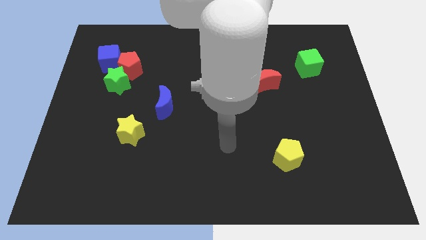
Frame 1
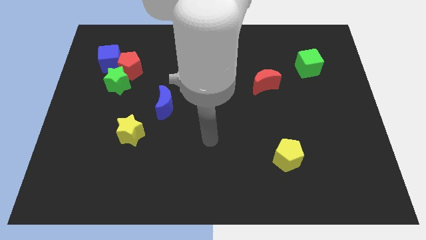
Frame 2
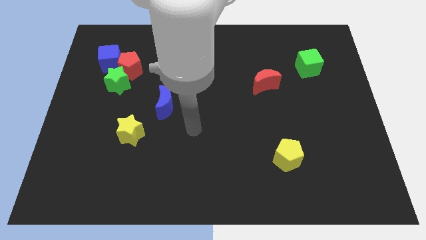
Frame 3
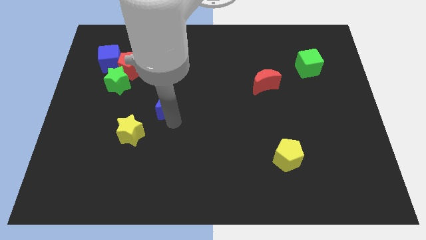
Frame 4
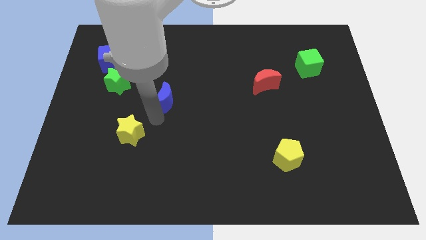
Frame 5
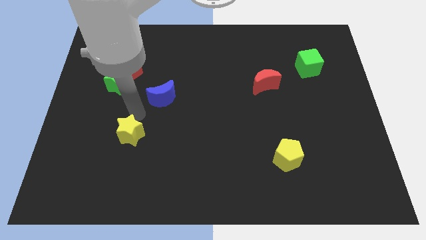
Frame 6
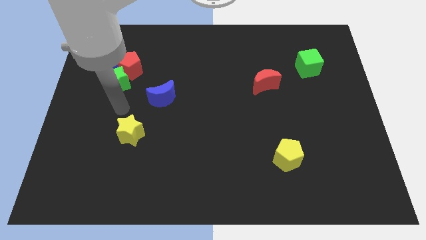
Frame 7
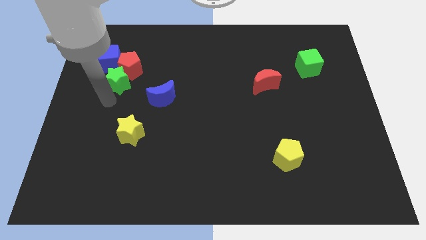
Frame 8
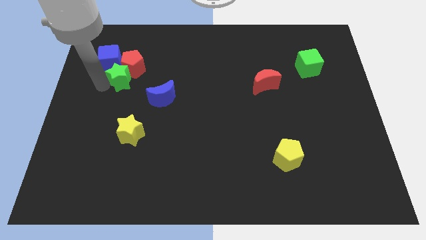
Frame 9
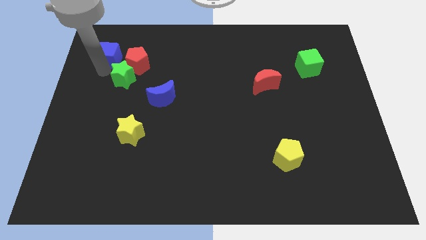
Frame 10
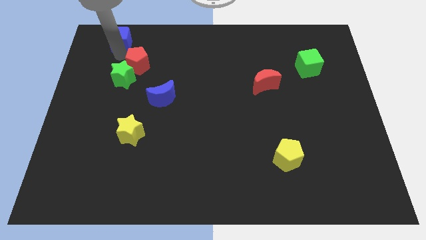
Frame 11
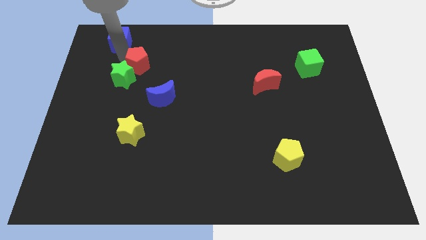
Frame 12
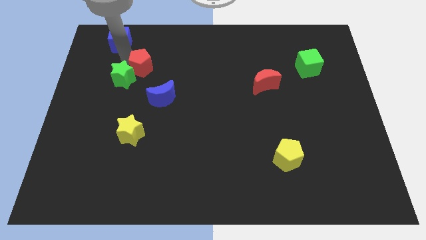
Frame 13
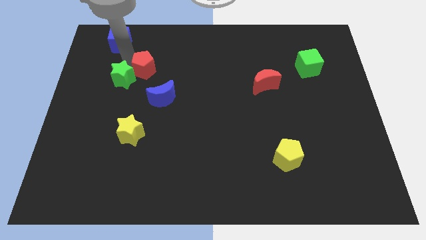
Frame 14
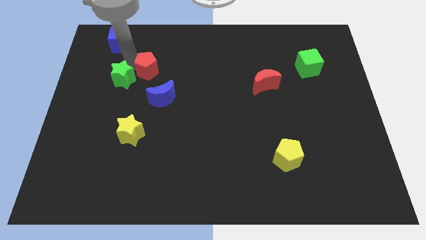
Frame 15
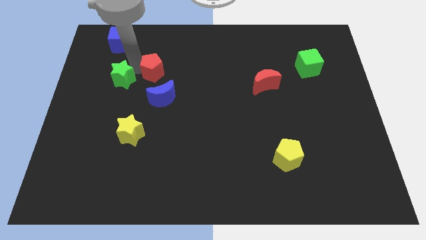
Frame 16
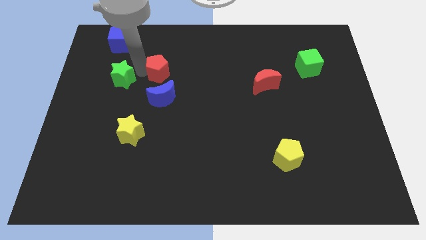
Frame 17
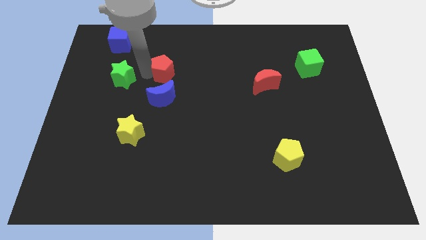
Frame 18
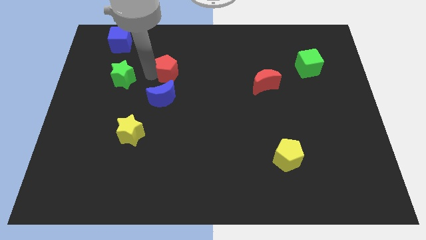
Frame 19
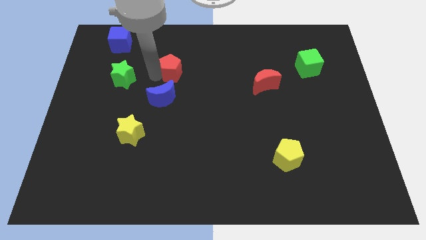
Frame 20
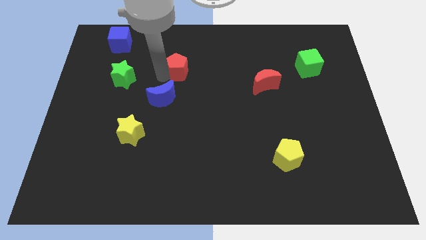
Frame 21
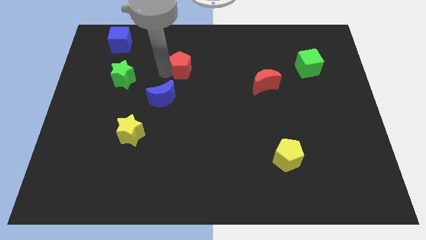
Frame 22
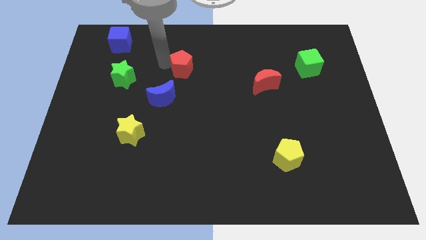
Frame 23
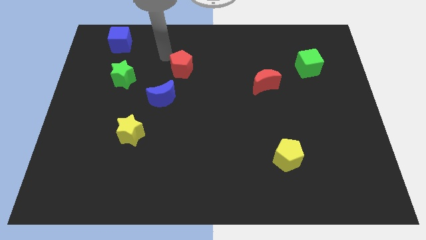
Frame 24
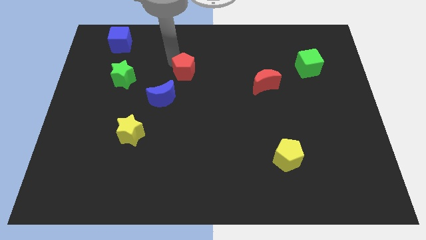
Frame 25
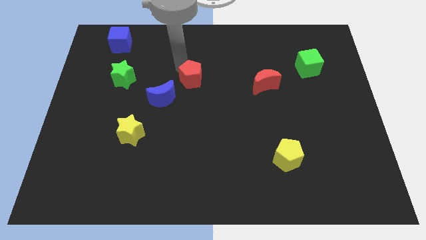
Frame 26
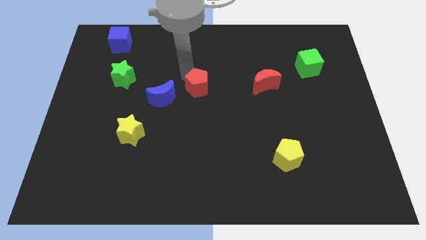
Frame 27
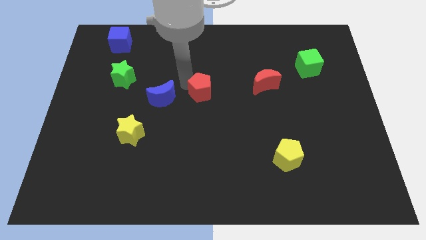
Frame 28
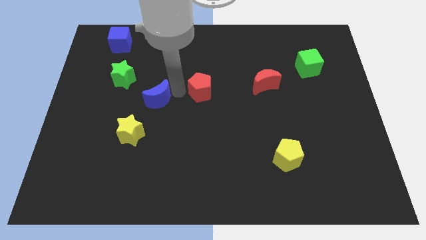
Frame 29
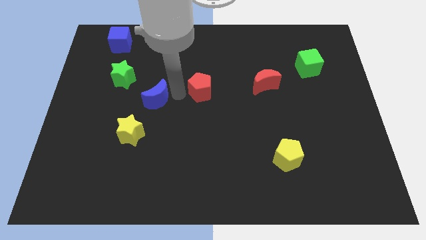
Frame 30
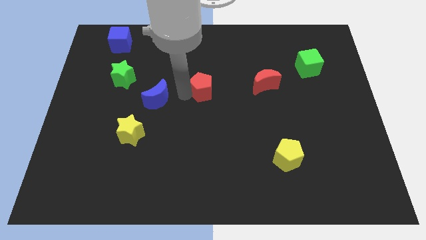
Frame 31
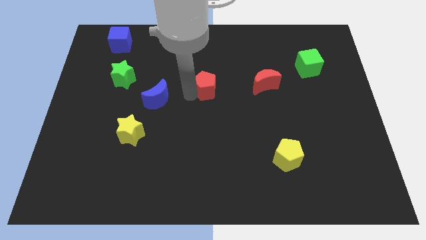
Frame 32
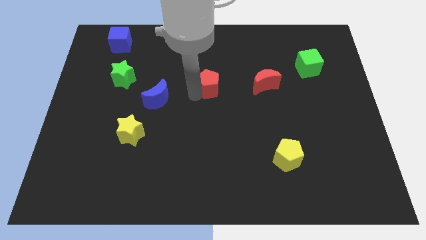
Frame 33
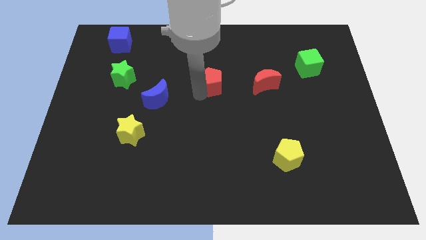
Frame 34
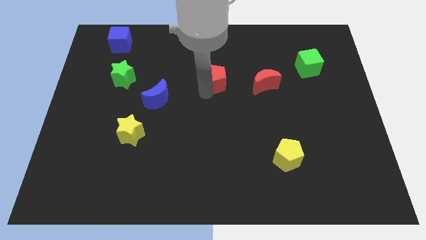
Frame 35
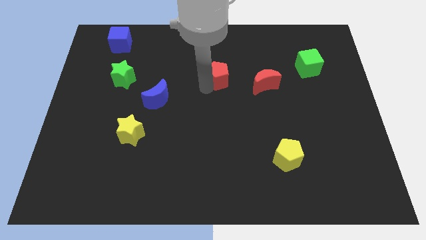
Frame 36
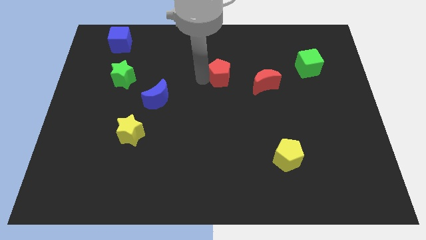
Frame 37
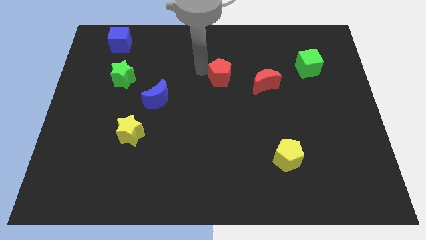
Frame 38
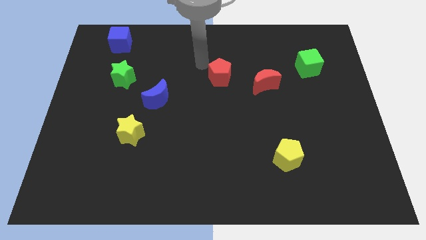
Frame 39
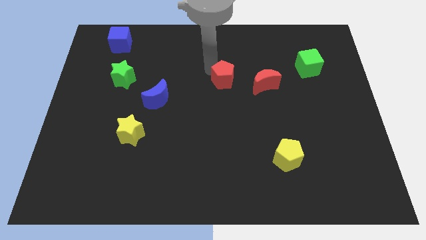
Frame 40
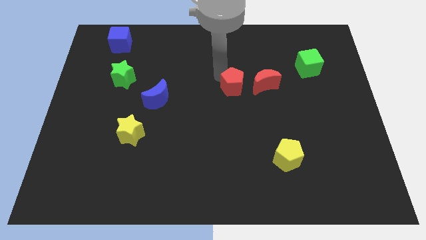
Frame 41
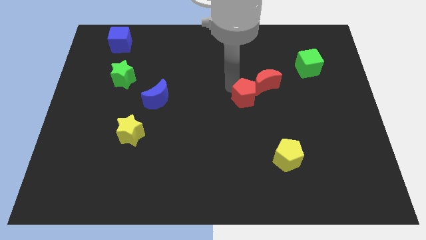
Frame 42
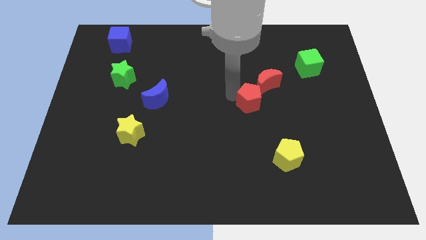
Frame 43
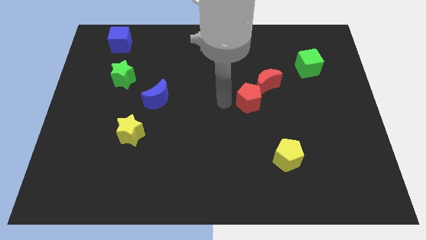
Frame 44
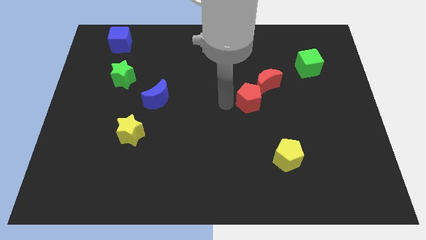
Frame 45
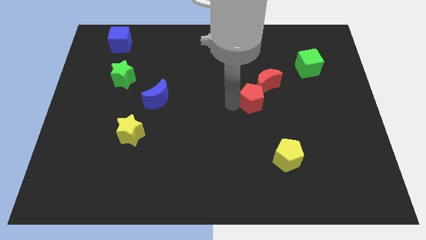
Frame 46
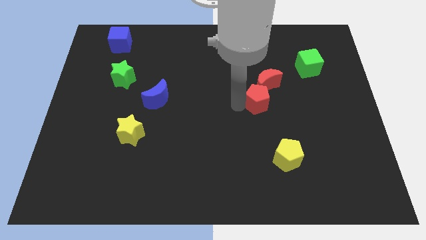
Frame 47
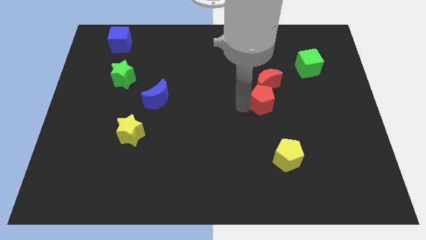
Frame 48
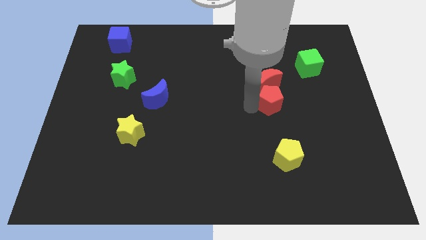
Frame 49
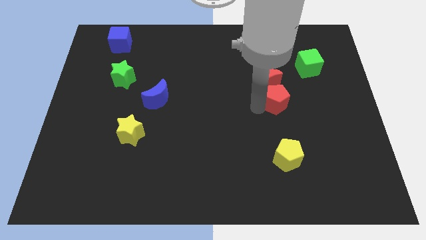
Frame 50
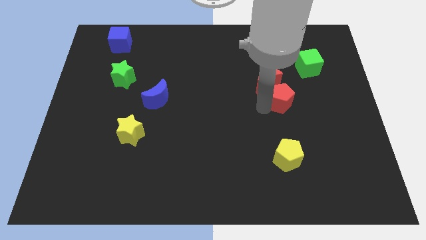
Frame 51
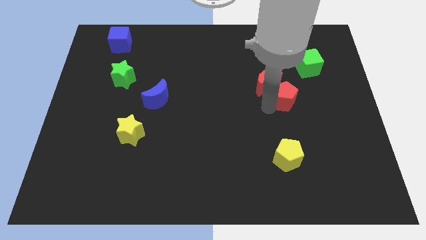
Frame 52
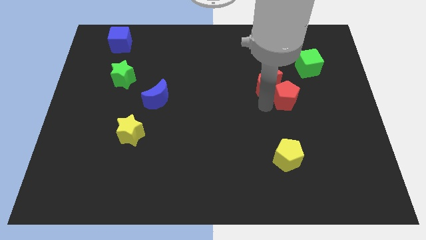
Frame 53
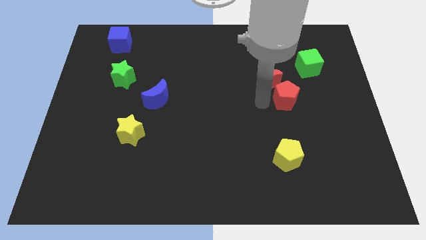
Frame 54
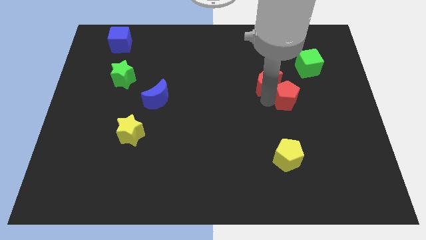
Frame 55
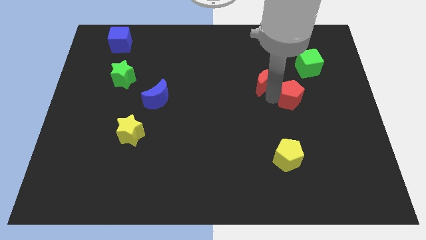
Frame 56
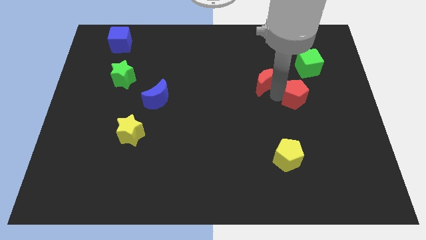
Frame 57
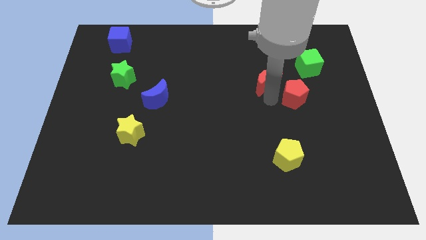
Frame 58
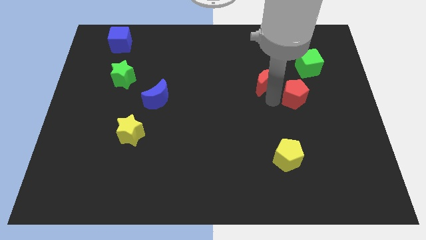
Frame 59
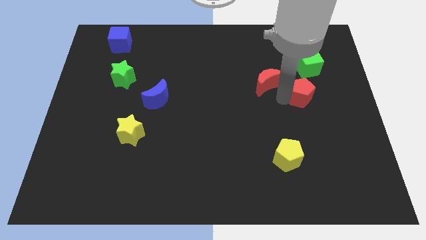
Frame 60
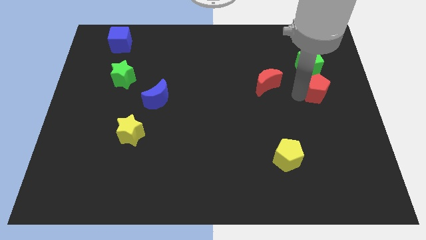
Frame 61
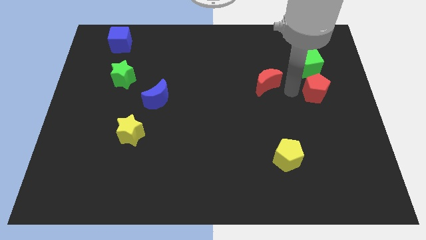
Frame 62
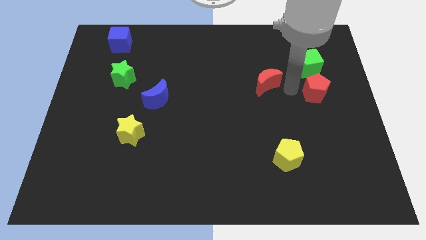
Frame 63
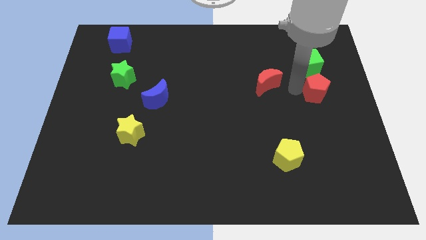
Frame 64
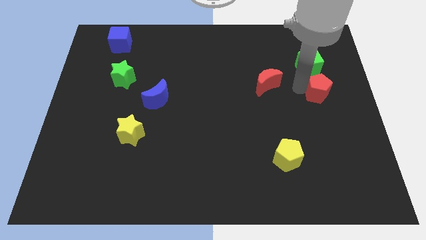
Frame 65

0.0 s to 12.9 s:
slide the red pentagon to the right side of the board

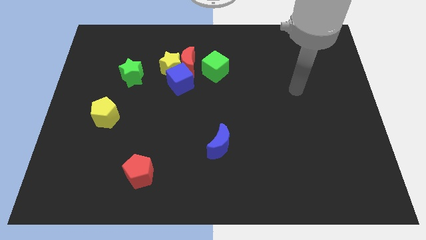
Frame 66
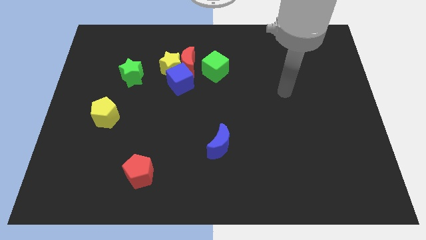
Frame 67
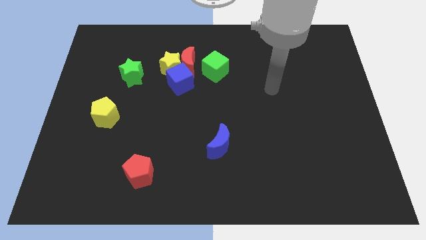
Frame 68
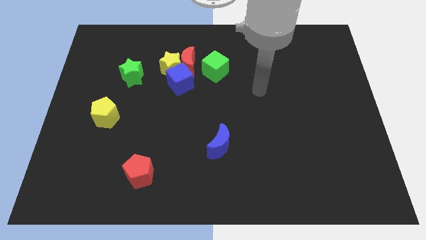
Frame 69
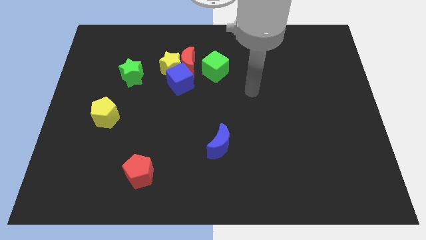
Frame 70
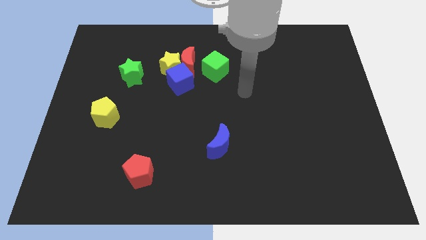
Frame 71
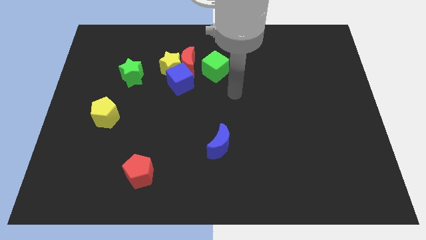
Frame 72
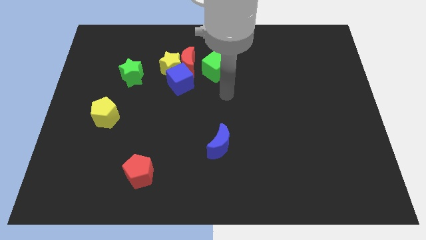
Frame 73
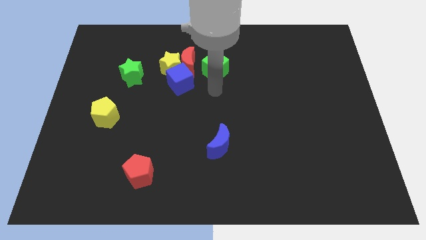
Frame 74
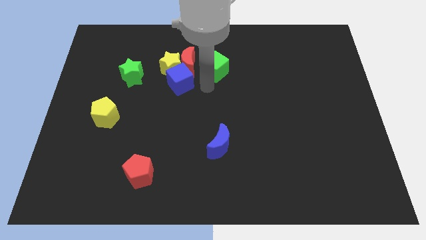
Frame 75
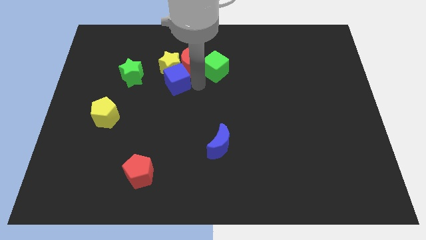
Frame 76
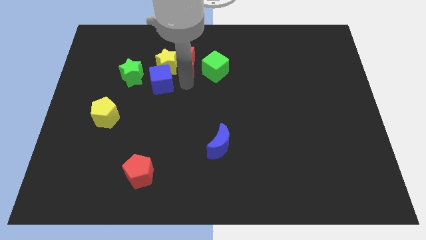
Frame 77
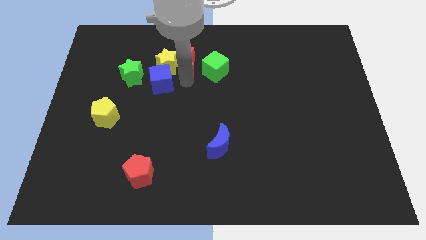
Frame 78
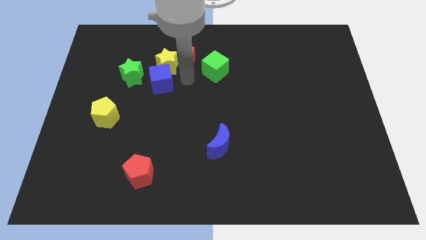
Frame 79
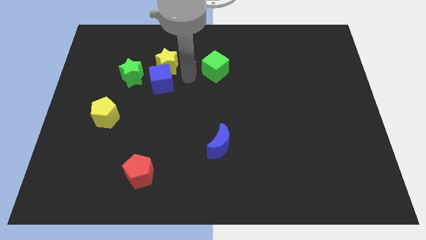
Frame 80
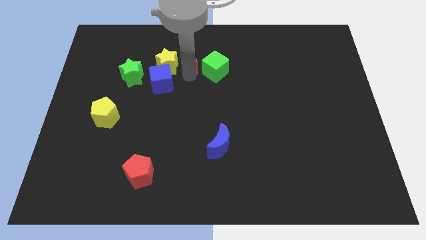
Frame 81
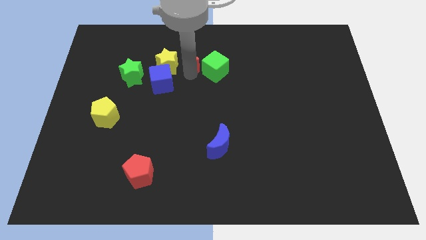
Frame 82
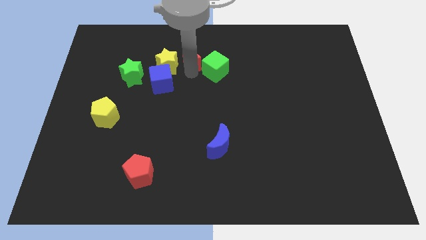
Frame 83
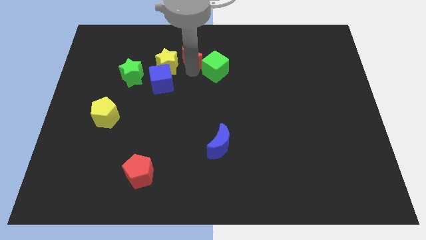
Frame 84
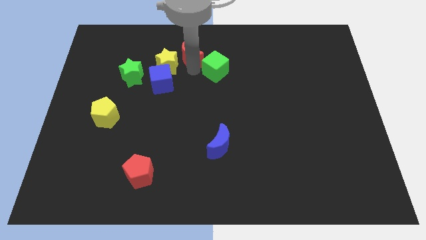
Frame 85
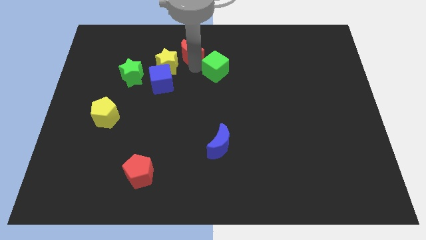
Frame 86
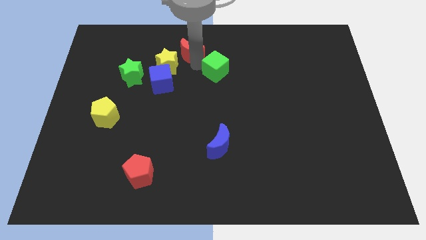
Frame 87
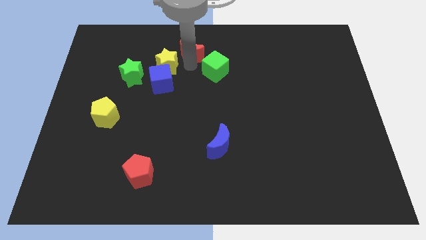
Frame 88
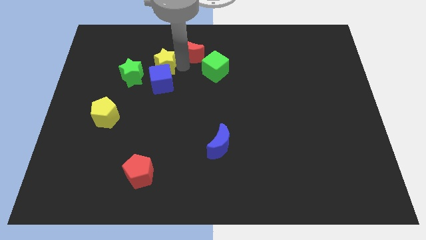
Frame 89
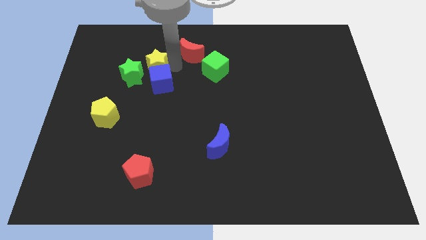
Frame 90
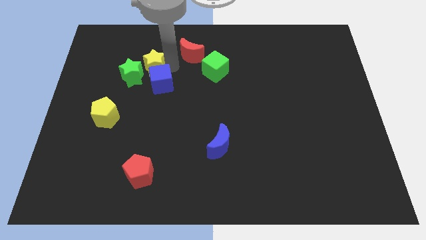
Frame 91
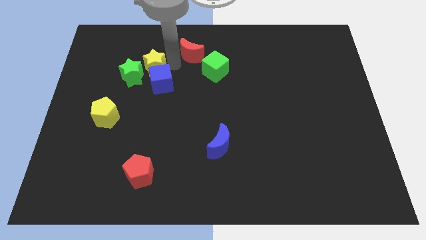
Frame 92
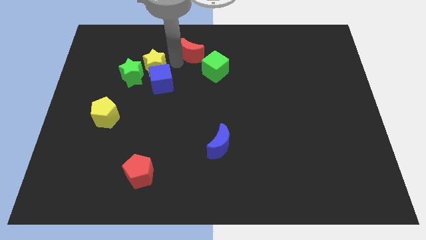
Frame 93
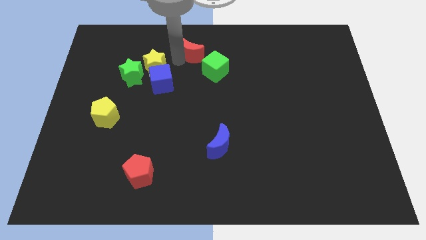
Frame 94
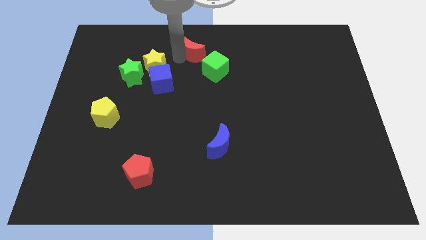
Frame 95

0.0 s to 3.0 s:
move the red moon to the top
